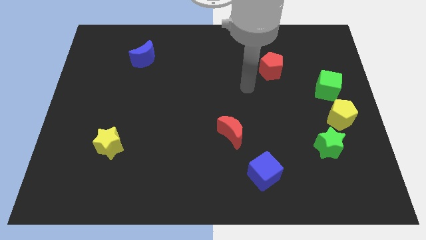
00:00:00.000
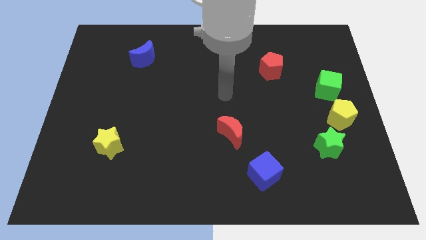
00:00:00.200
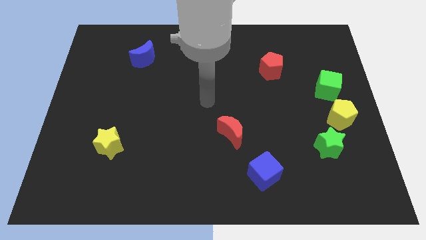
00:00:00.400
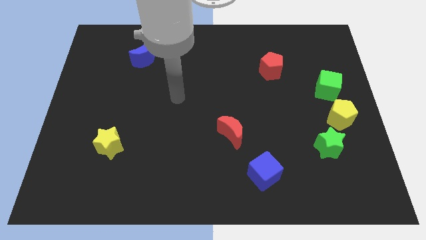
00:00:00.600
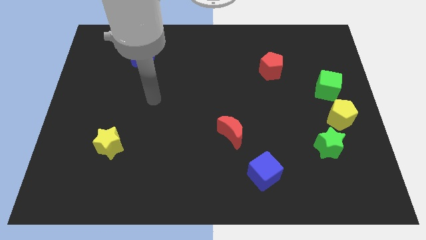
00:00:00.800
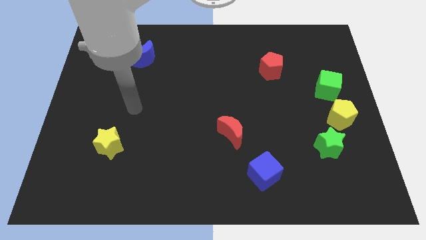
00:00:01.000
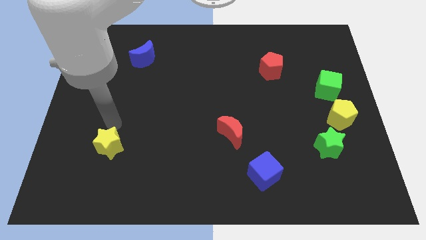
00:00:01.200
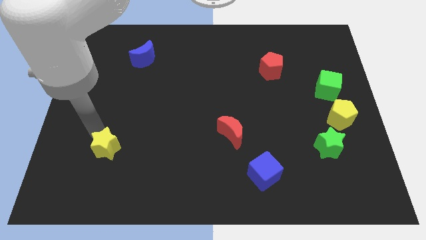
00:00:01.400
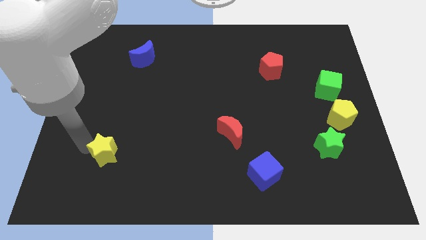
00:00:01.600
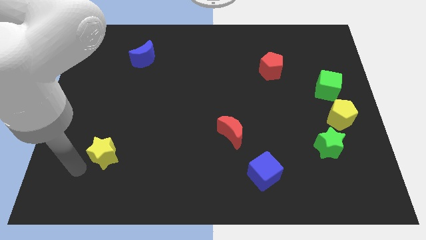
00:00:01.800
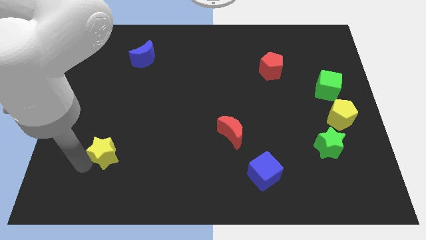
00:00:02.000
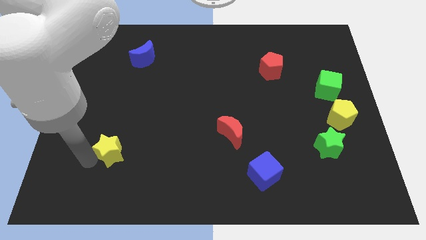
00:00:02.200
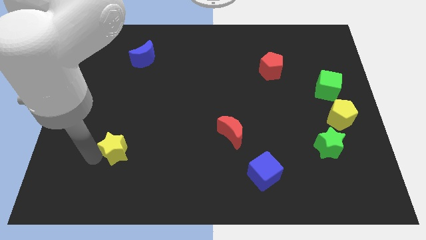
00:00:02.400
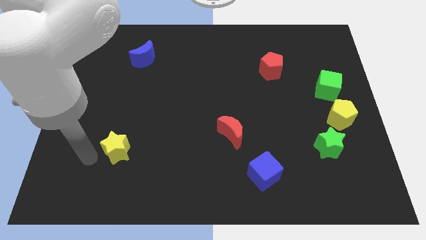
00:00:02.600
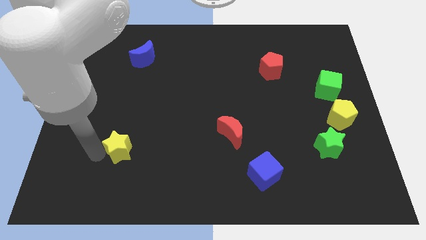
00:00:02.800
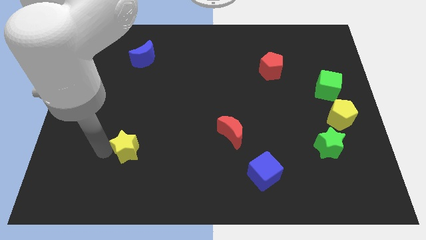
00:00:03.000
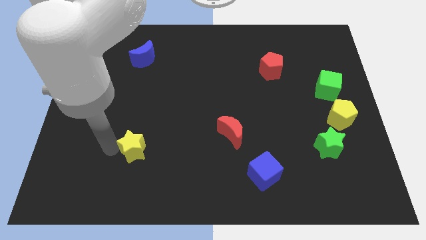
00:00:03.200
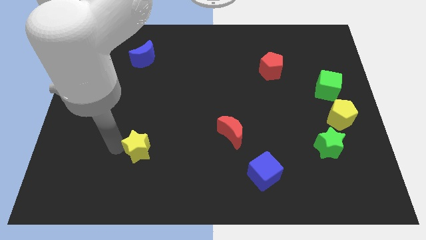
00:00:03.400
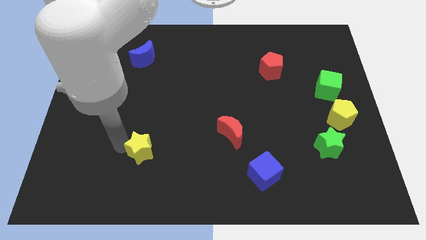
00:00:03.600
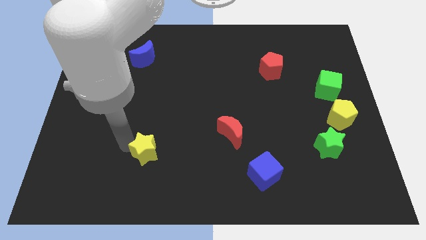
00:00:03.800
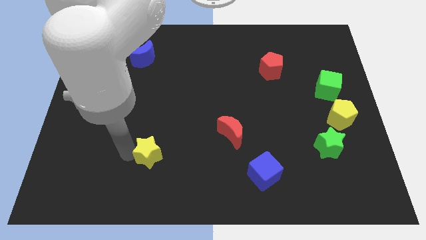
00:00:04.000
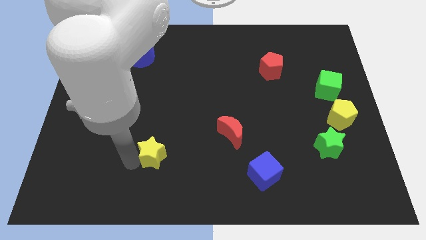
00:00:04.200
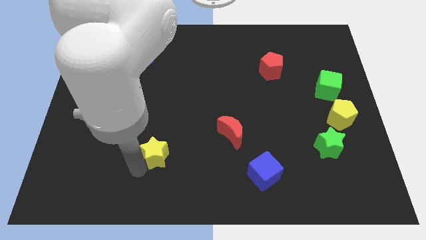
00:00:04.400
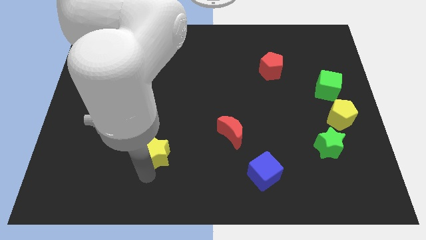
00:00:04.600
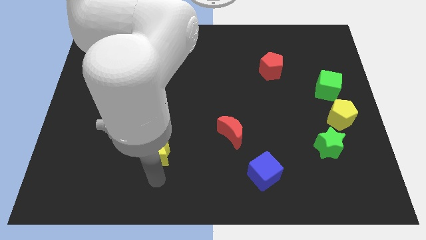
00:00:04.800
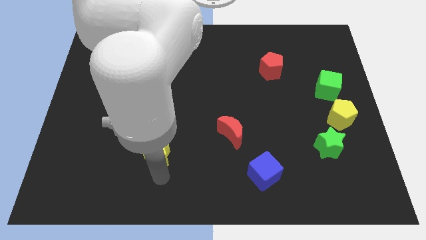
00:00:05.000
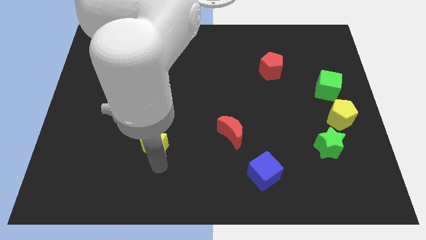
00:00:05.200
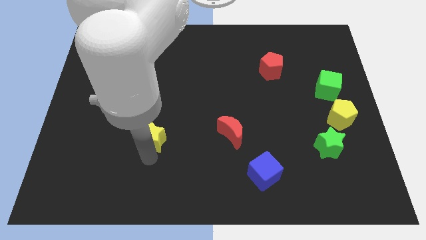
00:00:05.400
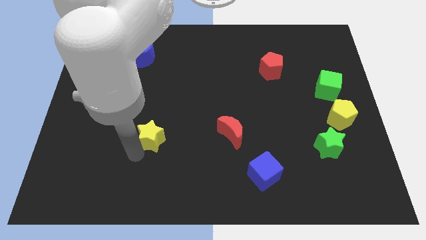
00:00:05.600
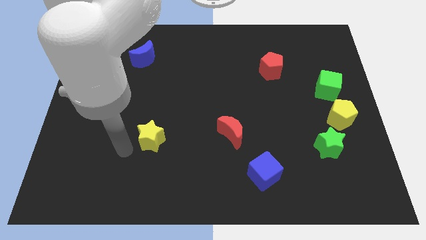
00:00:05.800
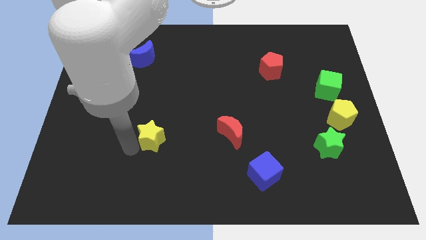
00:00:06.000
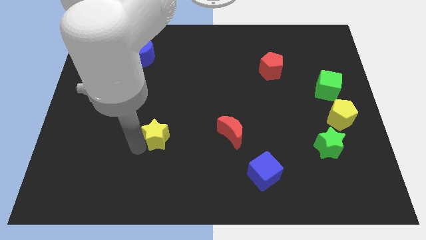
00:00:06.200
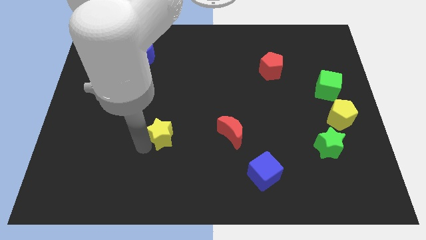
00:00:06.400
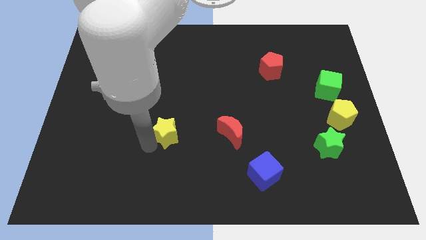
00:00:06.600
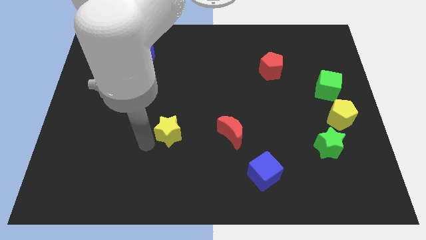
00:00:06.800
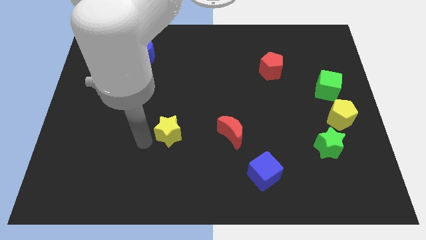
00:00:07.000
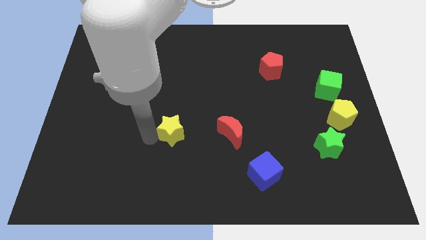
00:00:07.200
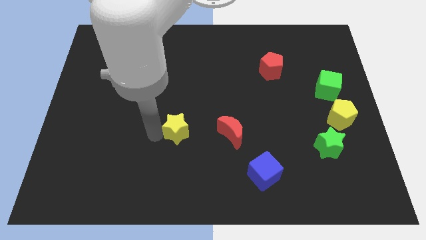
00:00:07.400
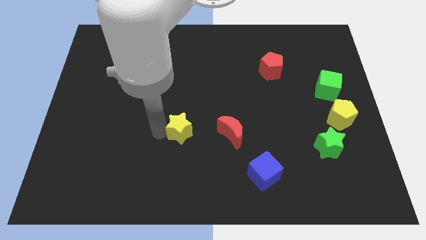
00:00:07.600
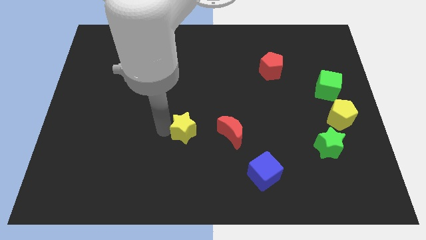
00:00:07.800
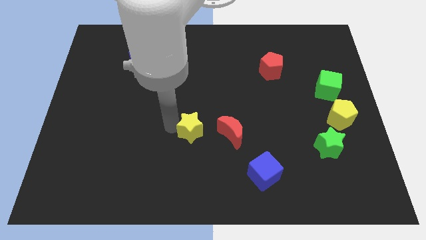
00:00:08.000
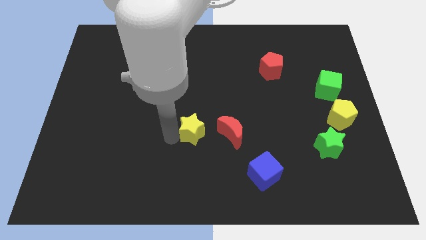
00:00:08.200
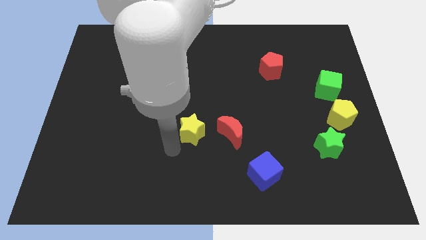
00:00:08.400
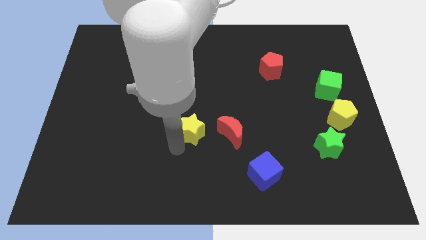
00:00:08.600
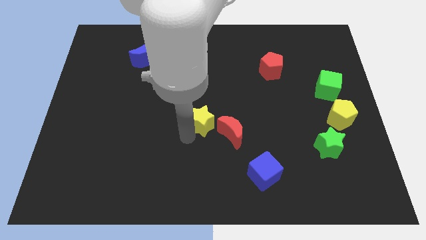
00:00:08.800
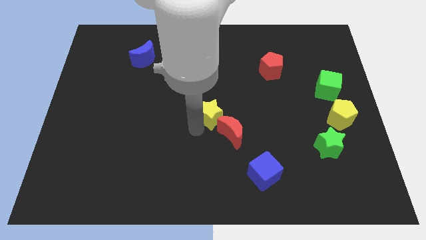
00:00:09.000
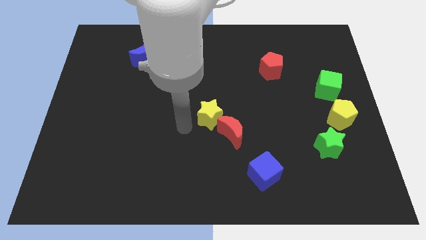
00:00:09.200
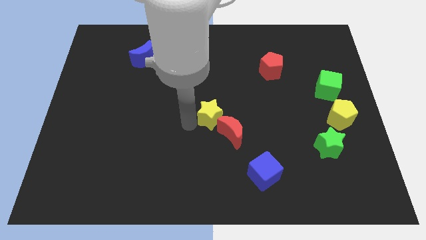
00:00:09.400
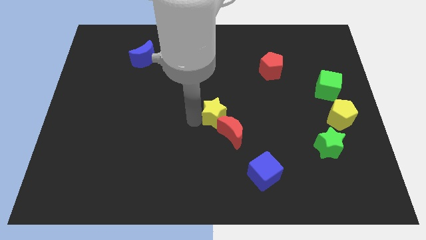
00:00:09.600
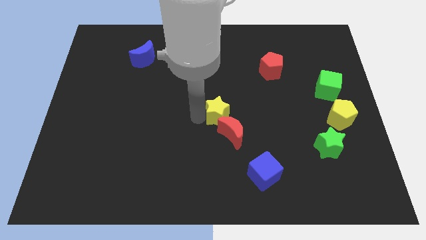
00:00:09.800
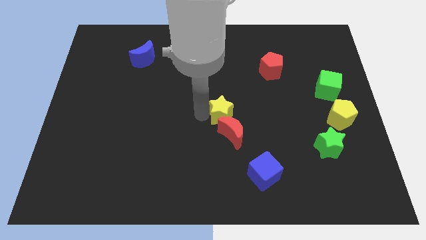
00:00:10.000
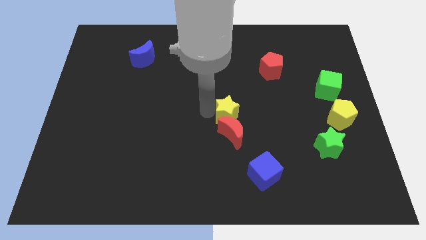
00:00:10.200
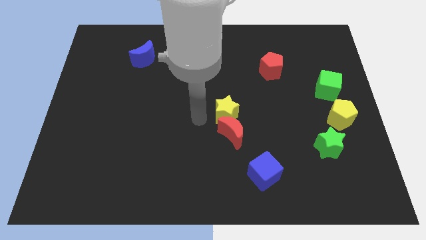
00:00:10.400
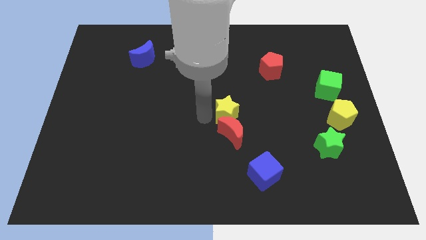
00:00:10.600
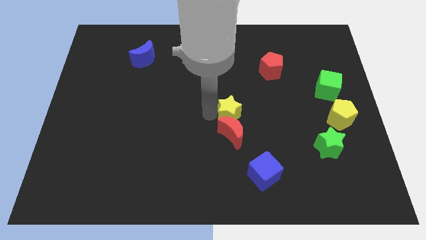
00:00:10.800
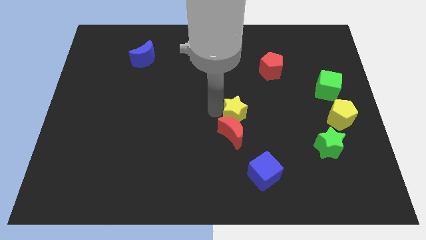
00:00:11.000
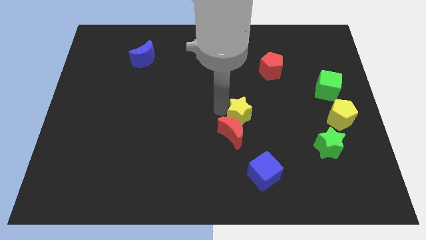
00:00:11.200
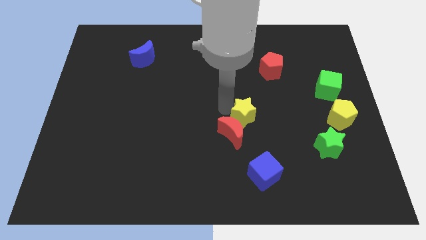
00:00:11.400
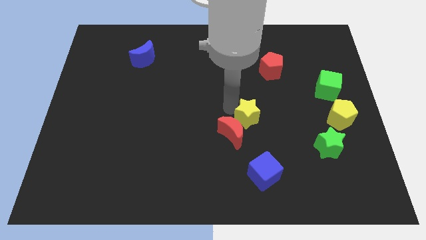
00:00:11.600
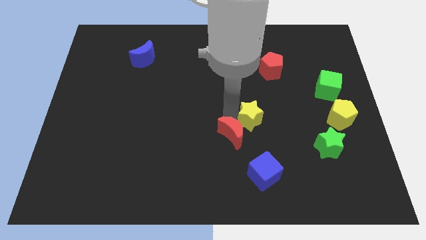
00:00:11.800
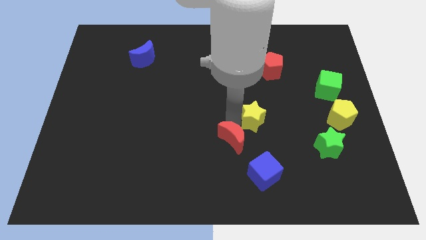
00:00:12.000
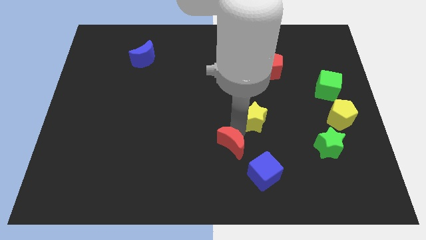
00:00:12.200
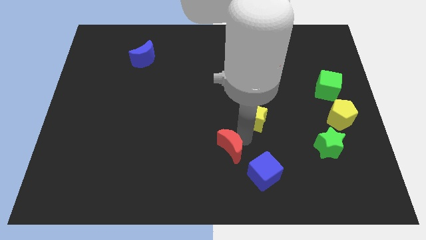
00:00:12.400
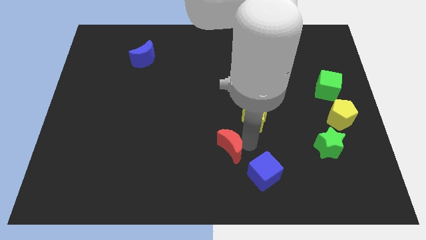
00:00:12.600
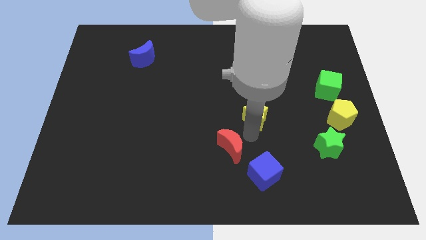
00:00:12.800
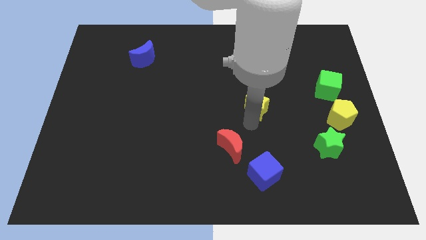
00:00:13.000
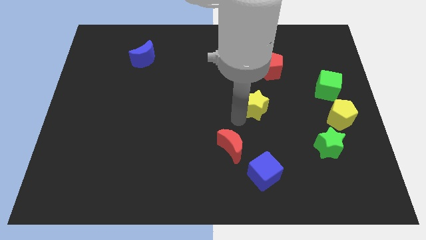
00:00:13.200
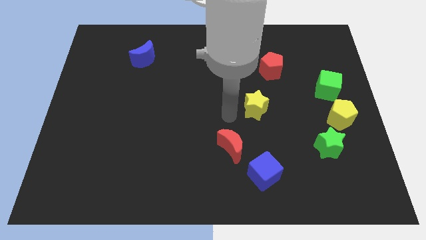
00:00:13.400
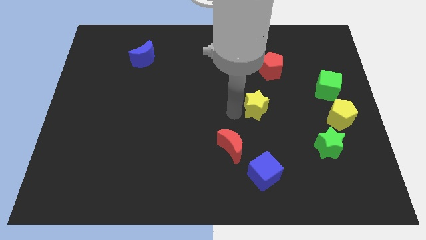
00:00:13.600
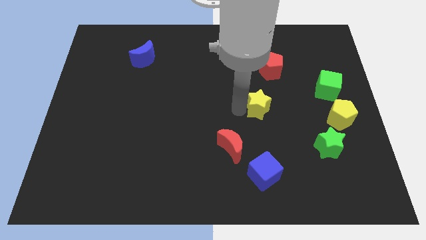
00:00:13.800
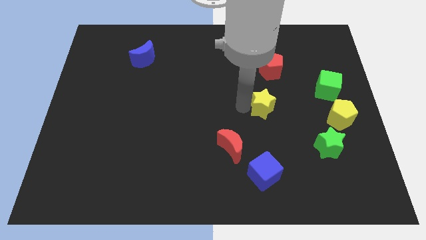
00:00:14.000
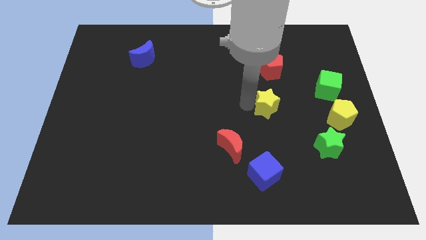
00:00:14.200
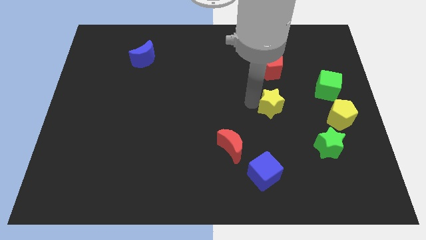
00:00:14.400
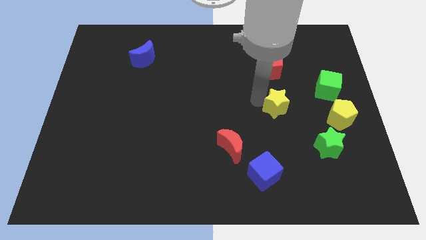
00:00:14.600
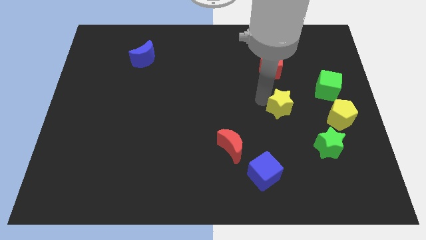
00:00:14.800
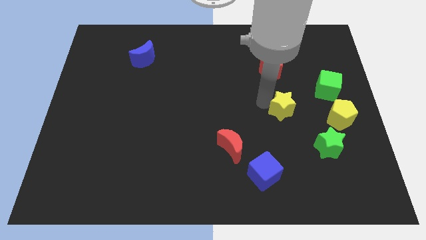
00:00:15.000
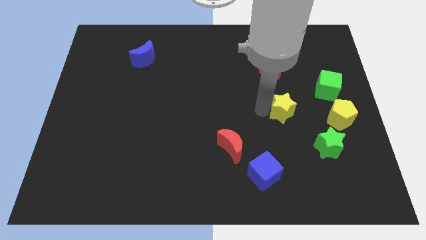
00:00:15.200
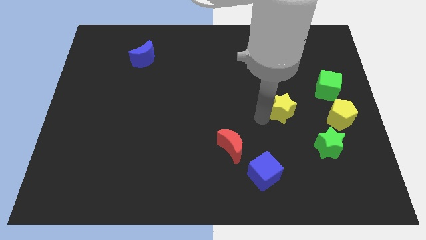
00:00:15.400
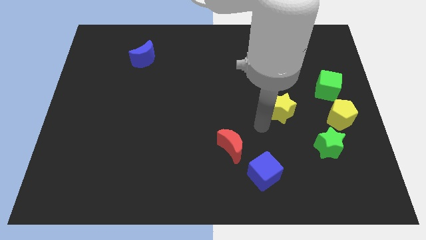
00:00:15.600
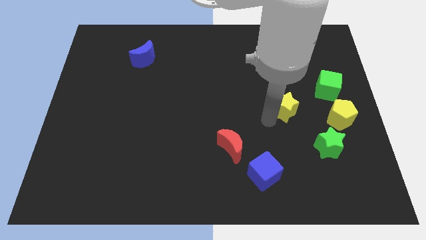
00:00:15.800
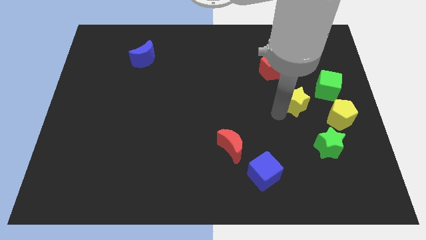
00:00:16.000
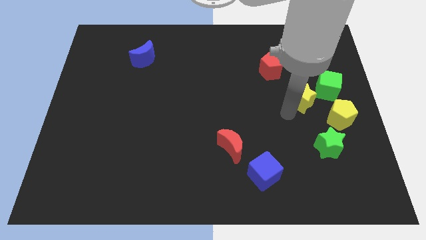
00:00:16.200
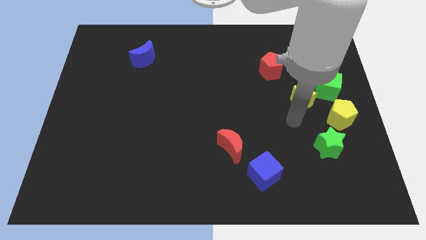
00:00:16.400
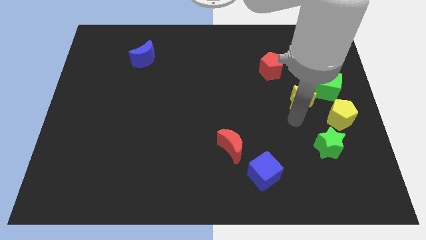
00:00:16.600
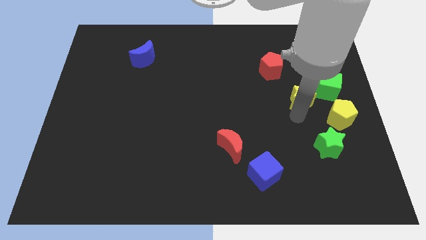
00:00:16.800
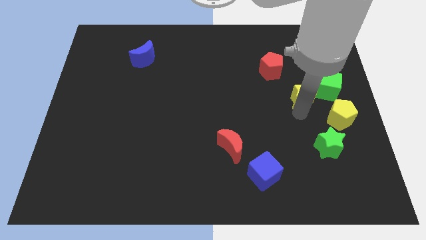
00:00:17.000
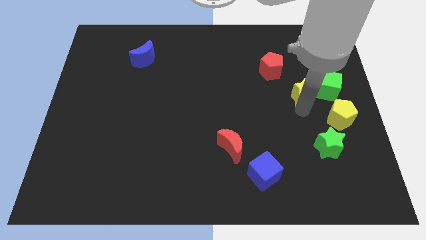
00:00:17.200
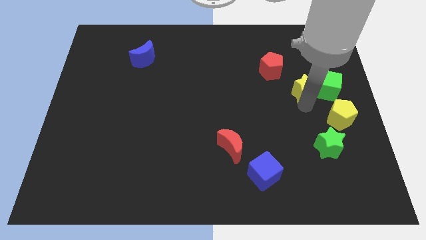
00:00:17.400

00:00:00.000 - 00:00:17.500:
push the yellow star close to the green cube
